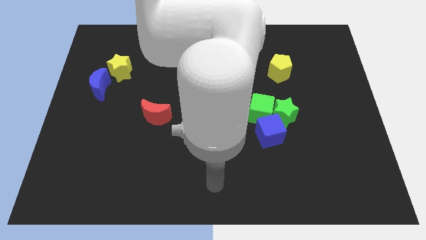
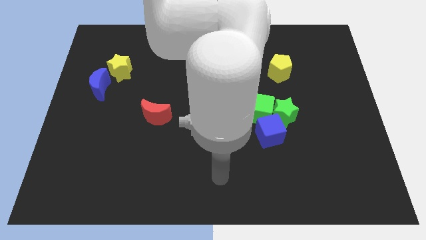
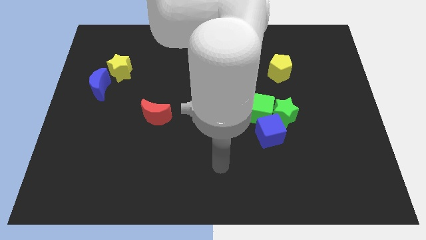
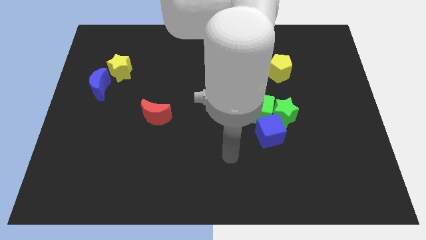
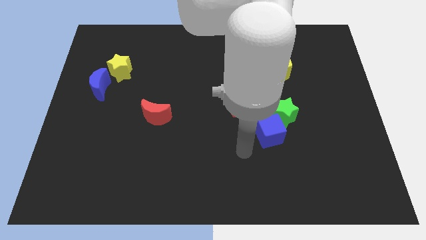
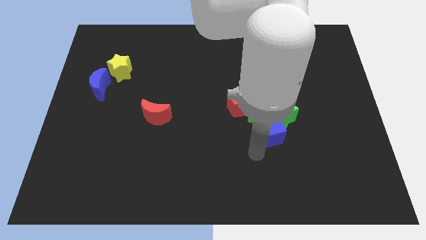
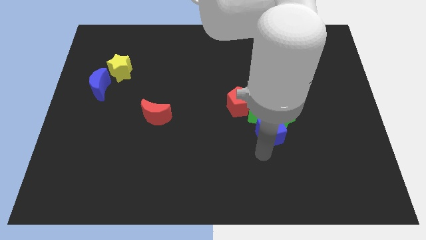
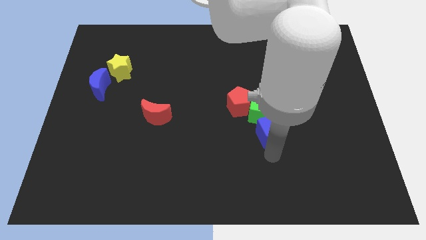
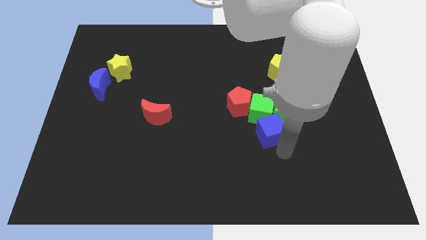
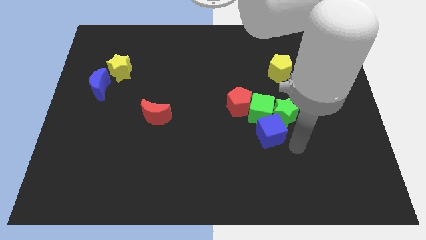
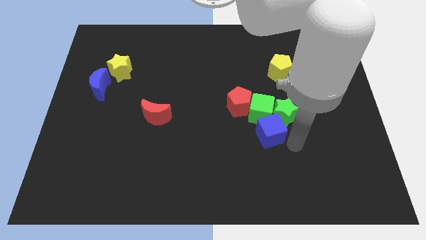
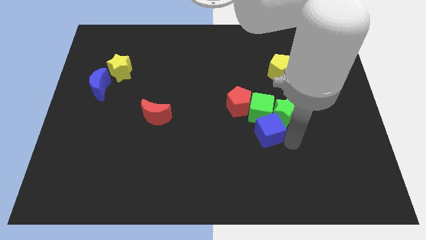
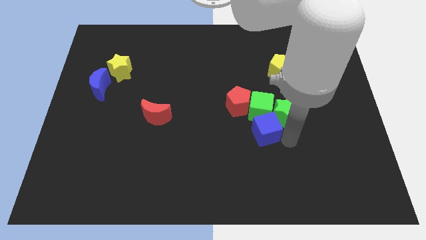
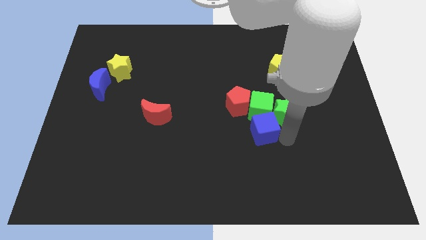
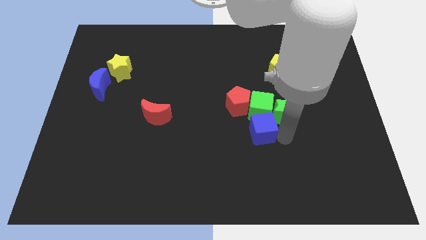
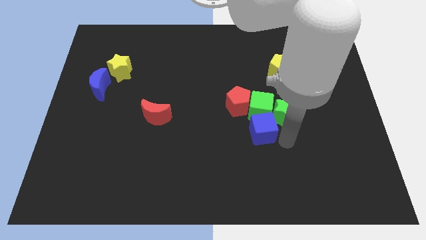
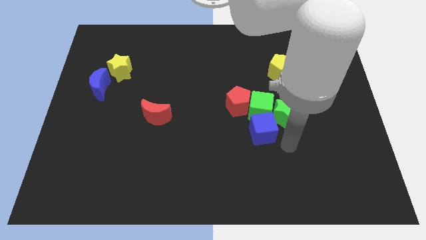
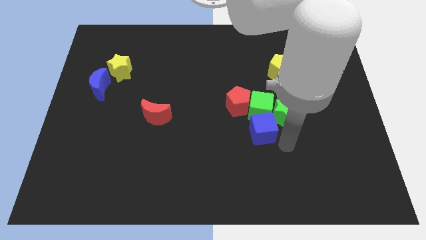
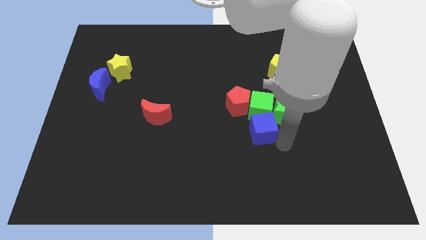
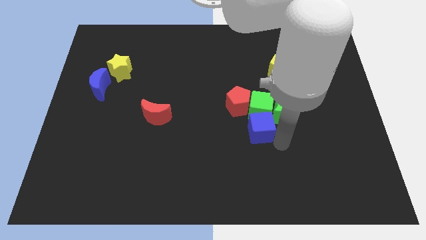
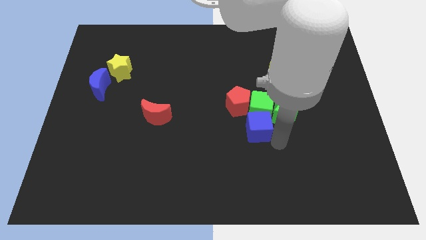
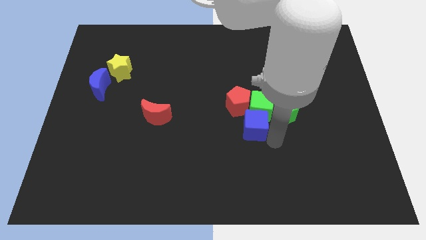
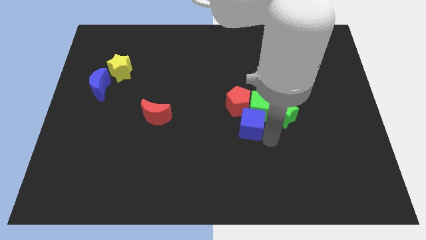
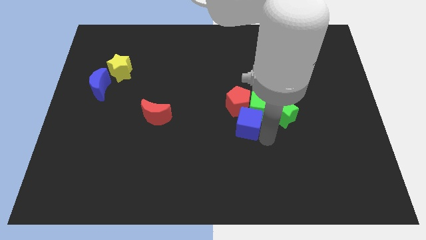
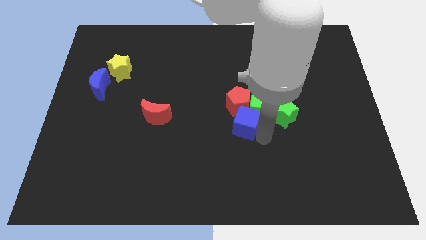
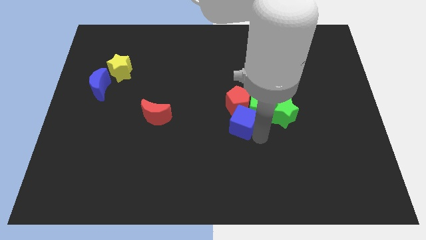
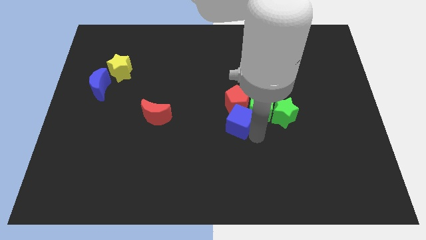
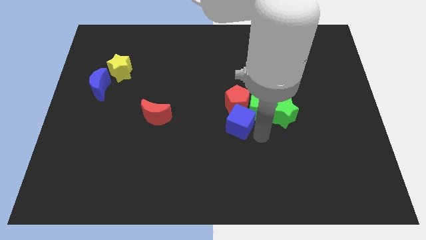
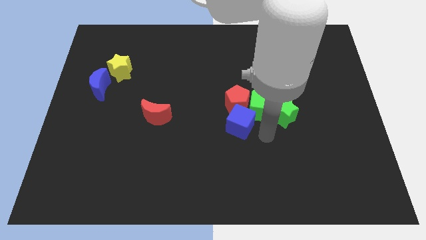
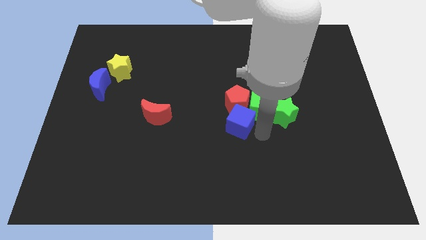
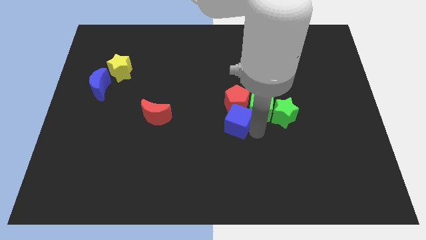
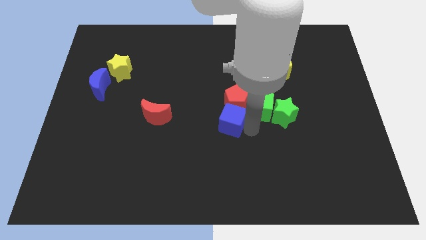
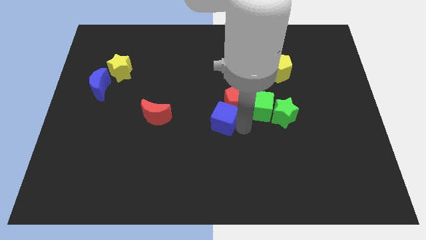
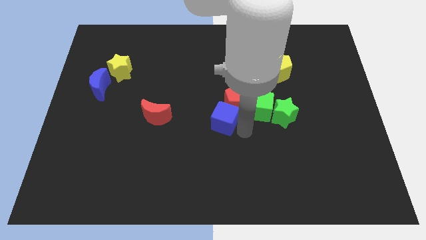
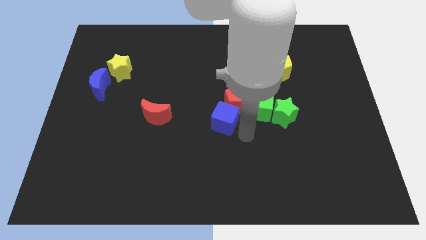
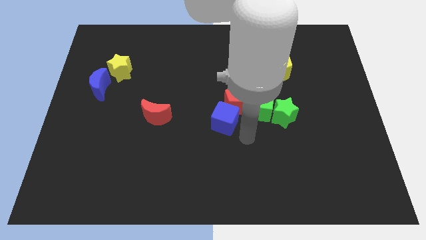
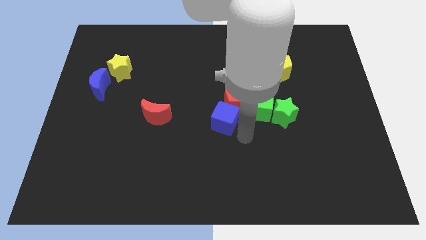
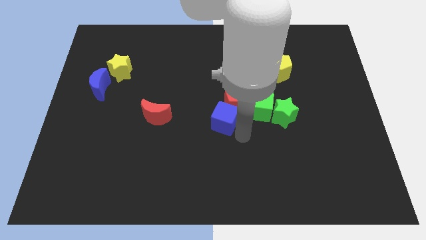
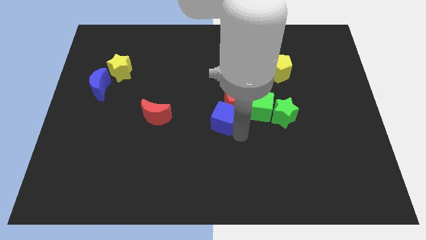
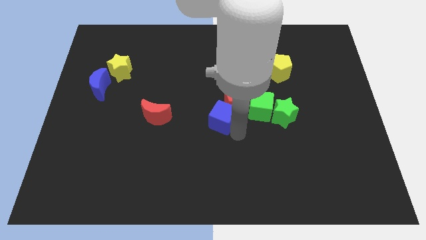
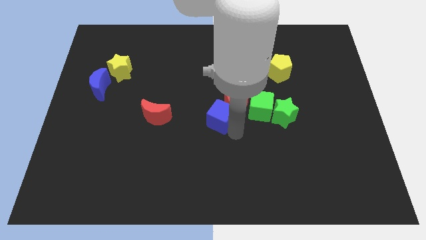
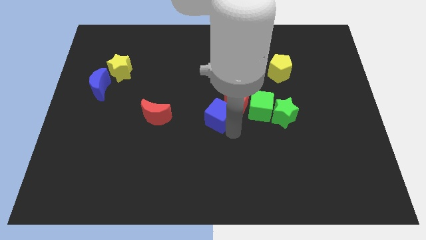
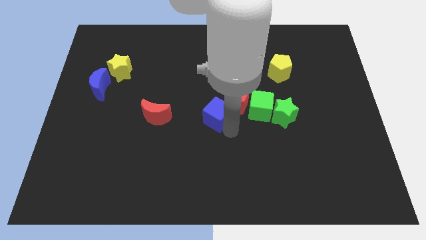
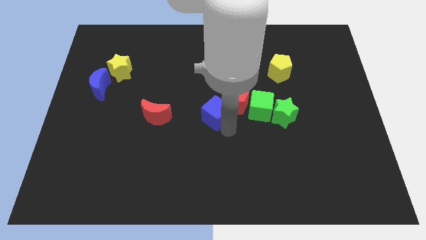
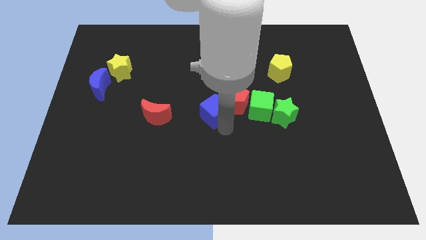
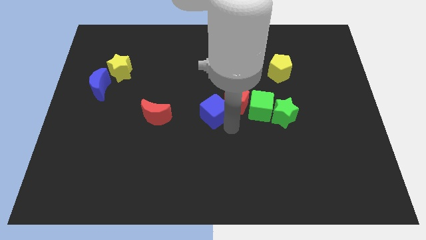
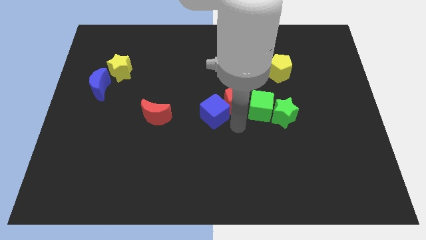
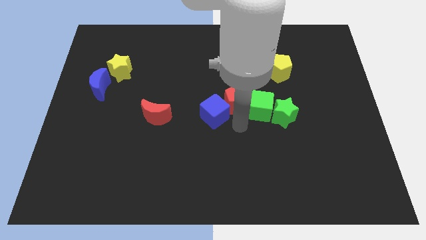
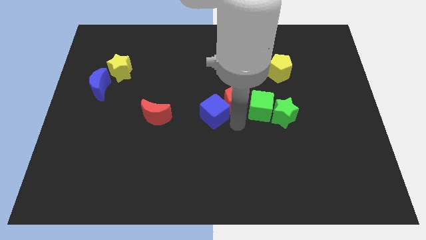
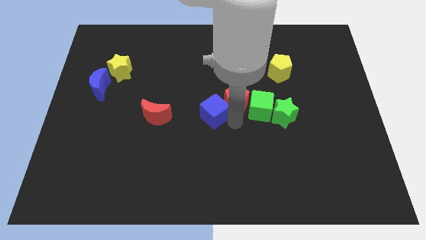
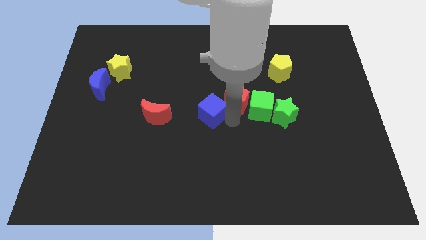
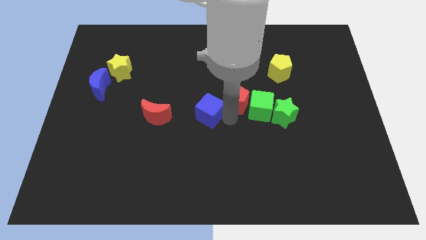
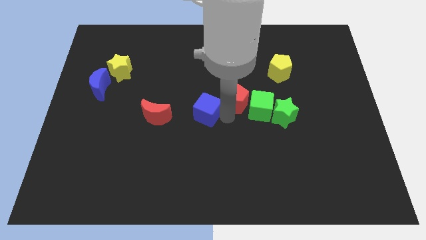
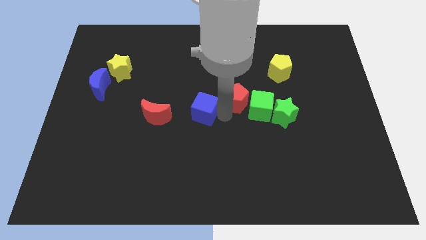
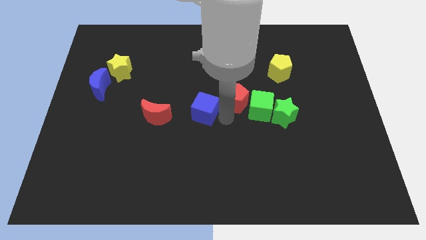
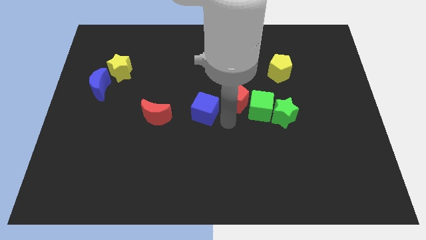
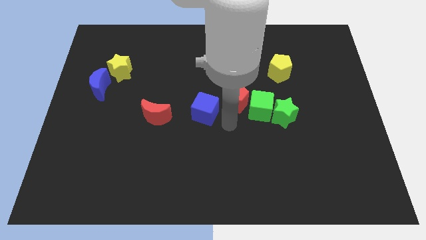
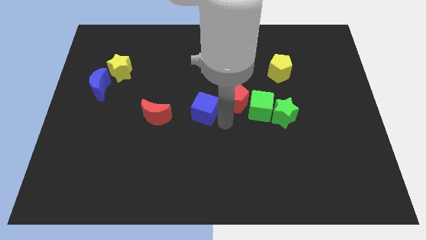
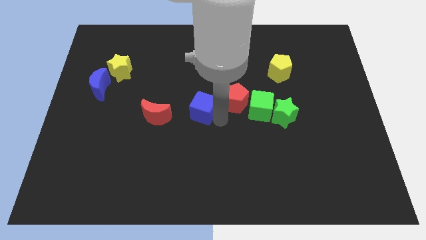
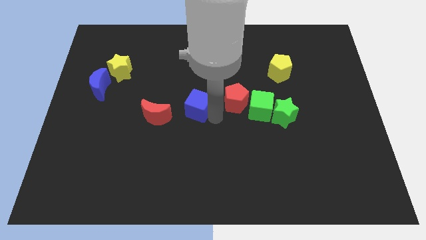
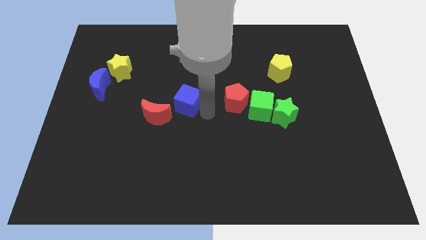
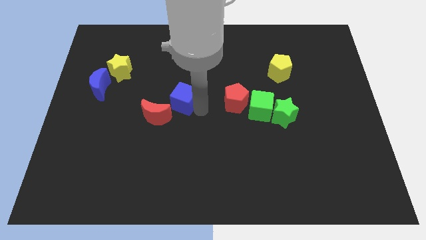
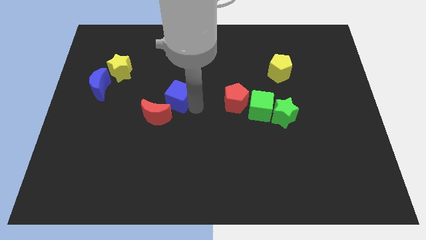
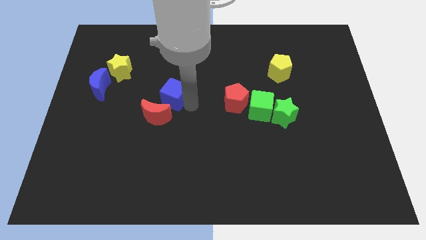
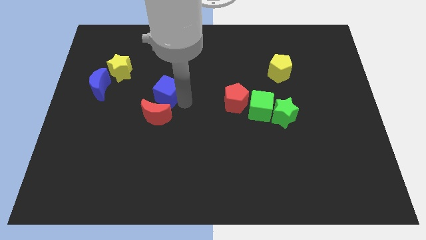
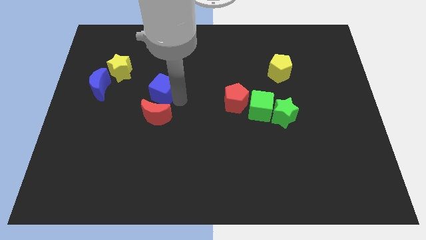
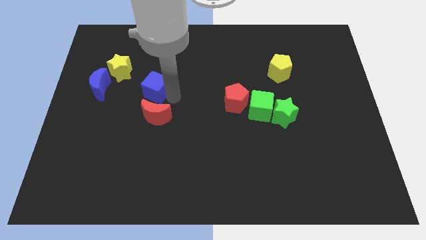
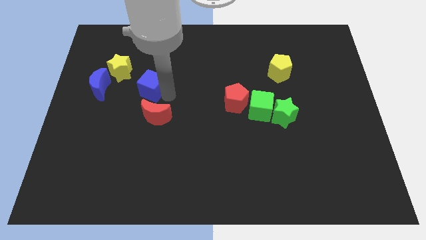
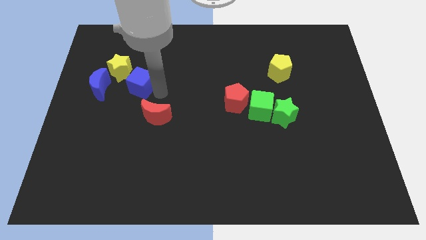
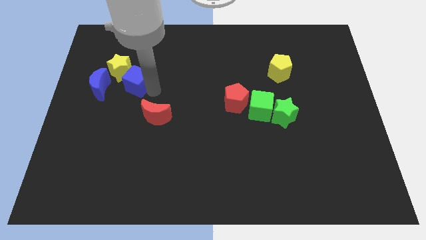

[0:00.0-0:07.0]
move the blue cube towards the yellow star

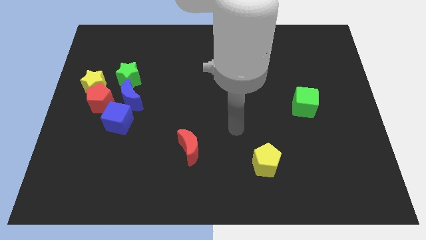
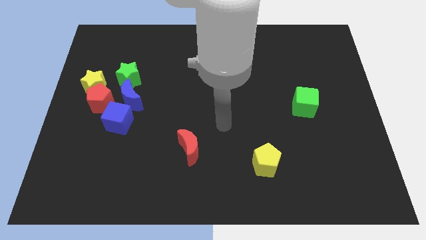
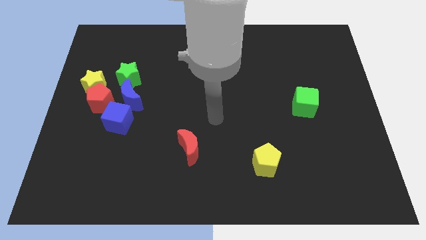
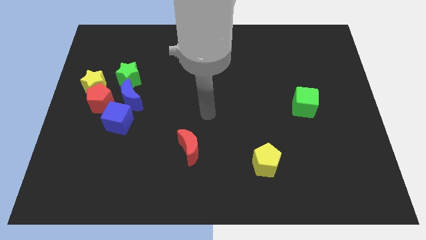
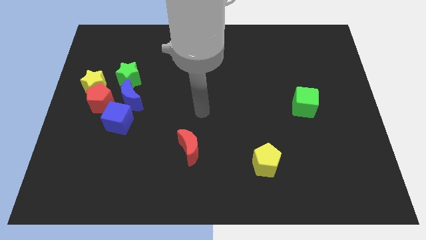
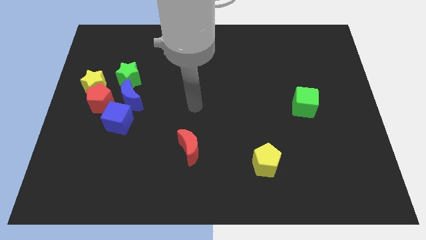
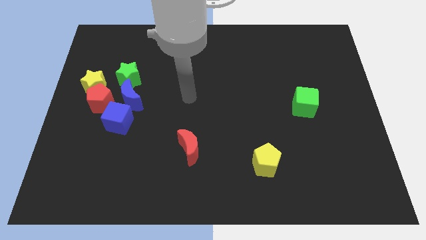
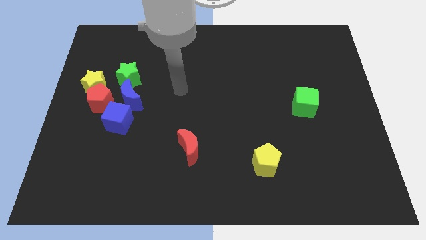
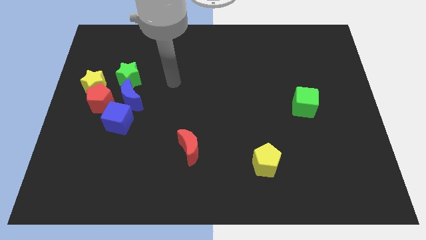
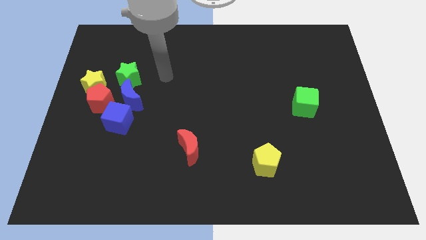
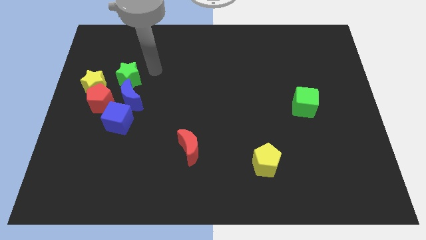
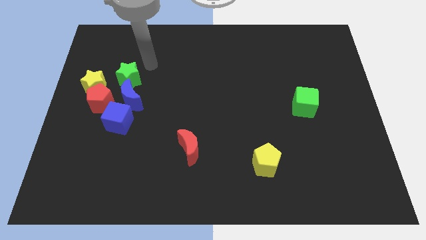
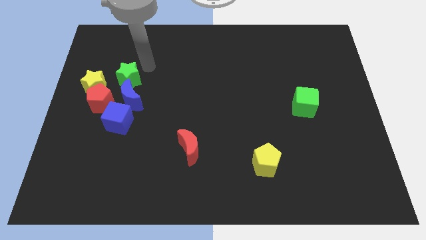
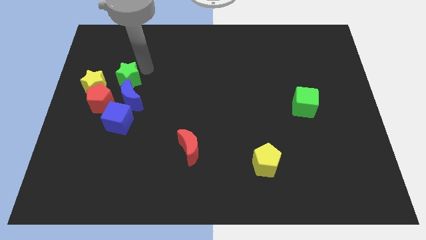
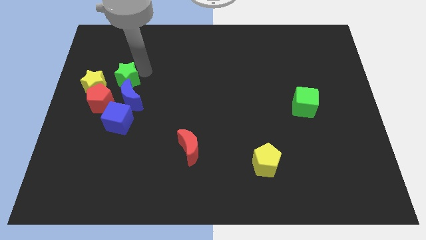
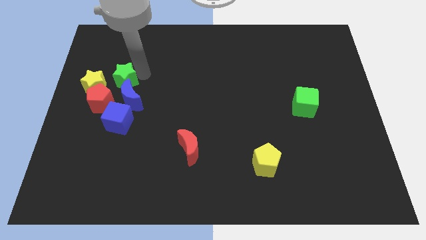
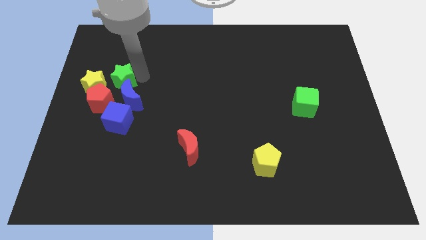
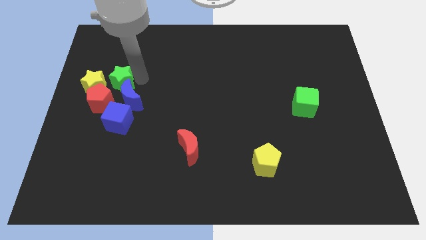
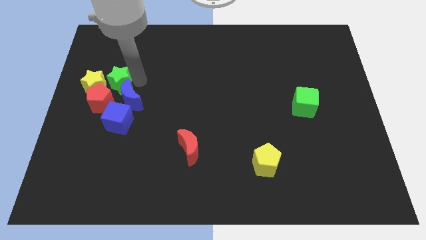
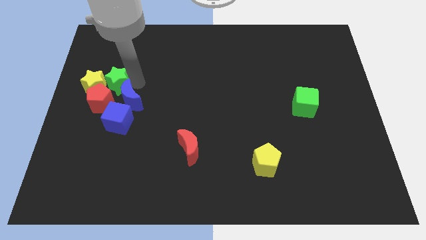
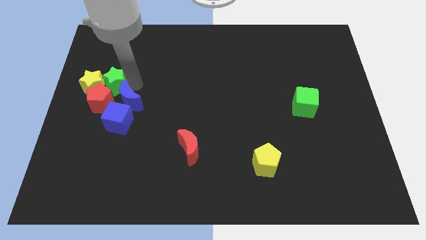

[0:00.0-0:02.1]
move the green star towards the red pentagon
